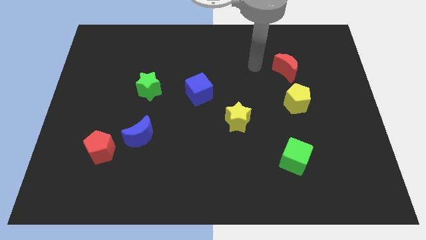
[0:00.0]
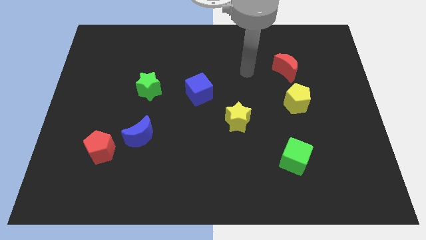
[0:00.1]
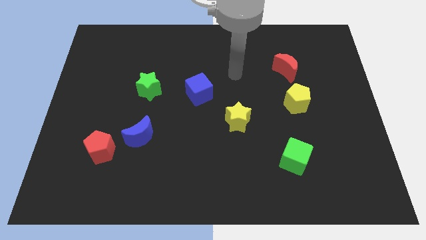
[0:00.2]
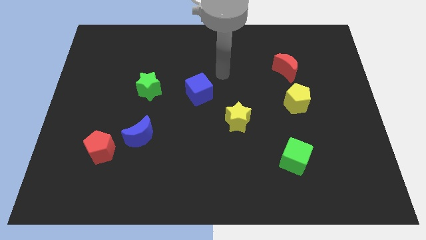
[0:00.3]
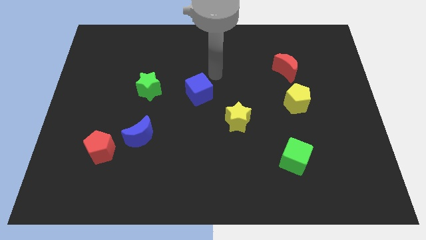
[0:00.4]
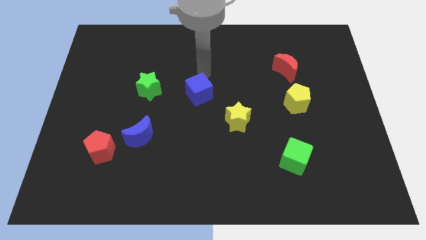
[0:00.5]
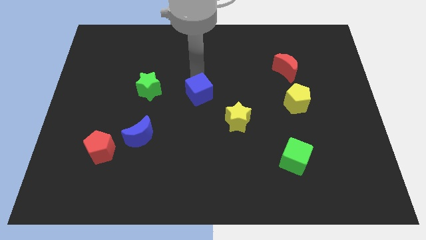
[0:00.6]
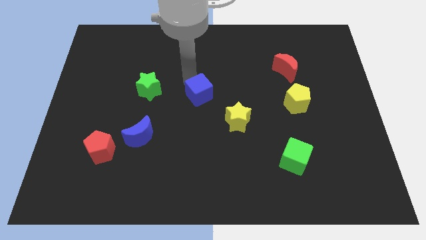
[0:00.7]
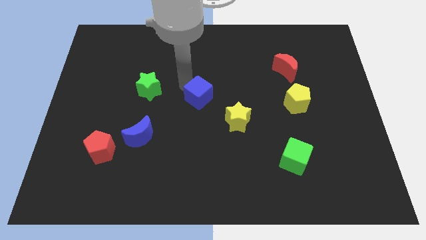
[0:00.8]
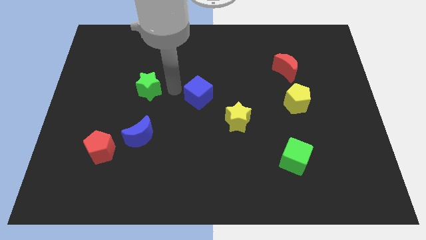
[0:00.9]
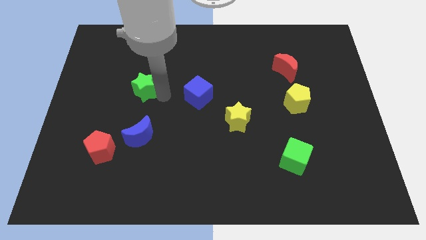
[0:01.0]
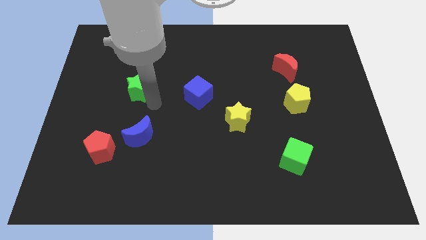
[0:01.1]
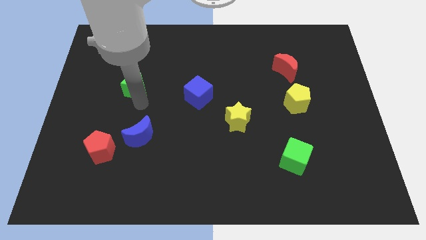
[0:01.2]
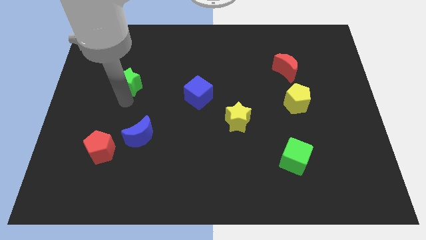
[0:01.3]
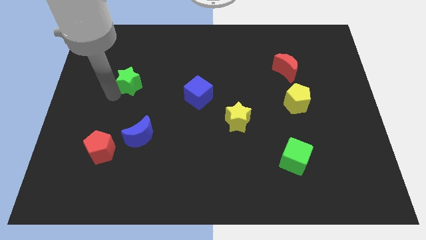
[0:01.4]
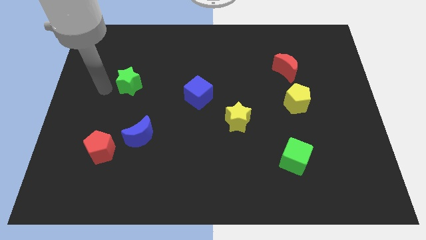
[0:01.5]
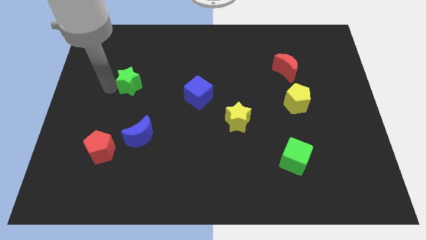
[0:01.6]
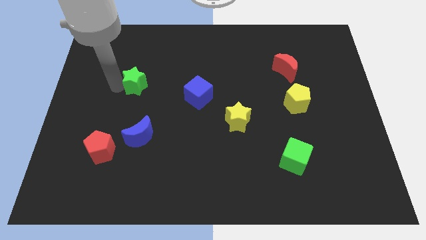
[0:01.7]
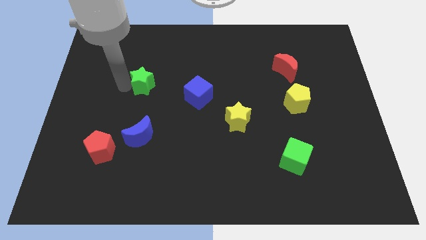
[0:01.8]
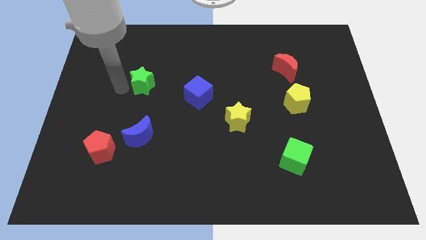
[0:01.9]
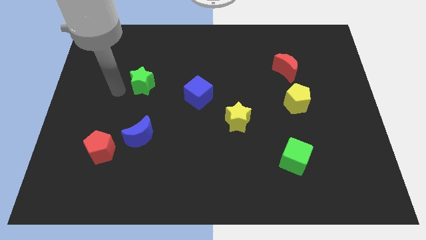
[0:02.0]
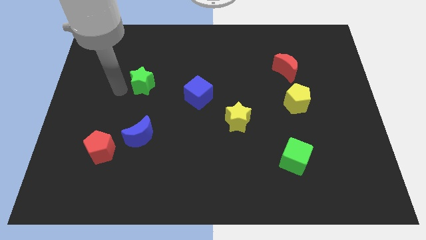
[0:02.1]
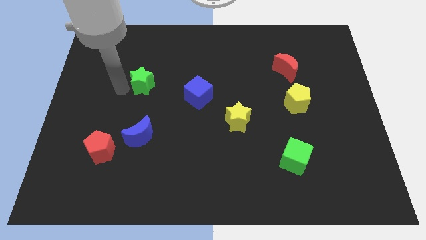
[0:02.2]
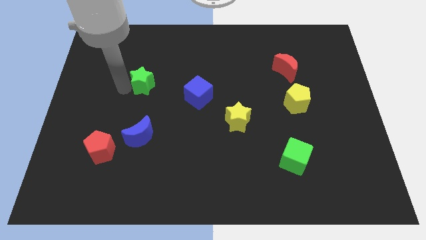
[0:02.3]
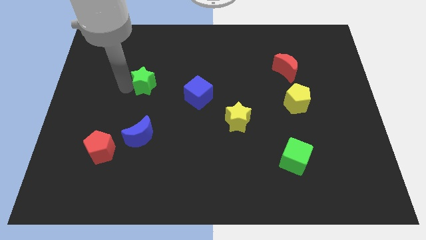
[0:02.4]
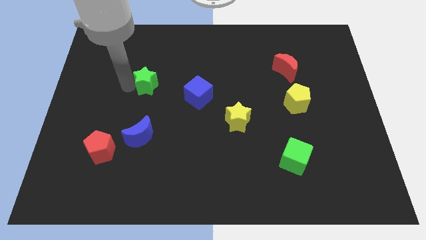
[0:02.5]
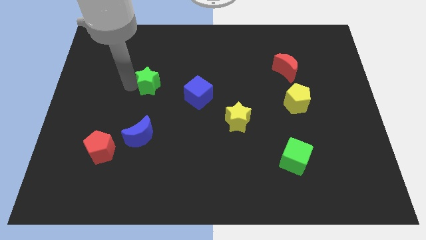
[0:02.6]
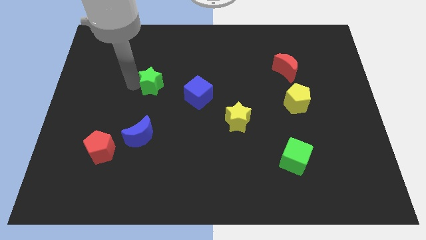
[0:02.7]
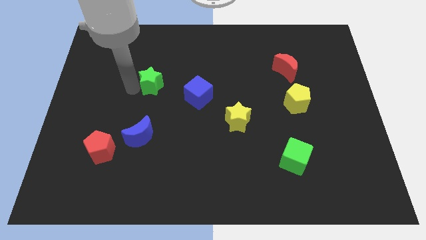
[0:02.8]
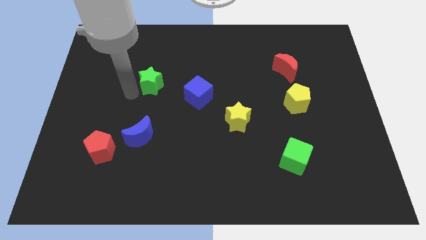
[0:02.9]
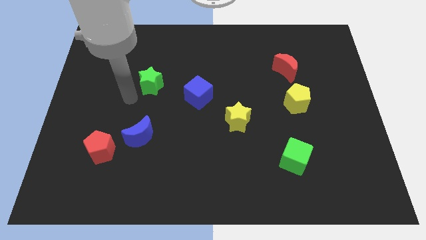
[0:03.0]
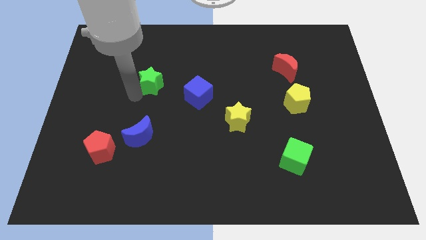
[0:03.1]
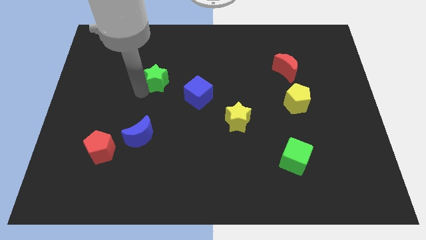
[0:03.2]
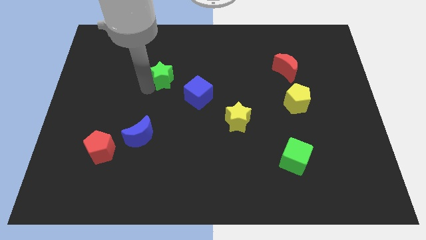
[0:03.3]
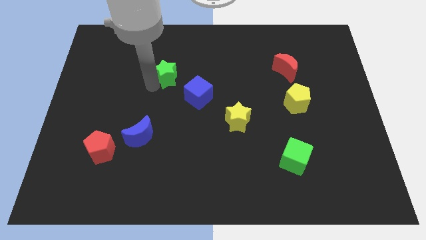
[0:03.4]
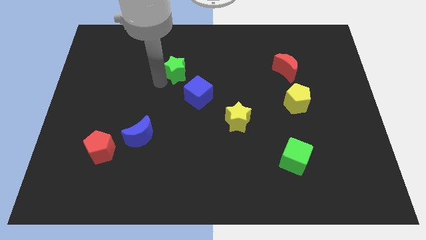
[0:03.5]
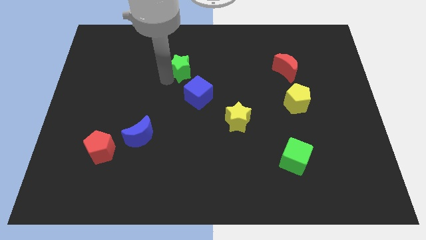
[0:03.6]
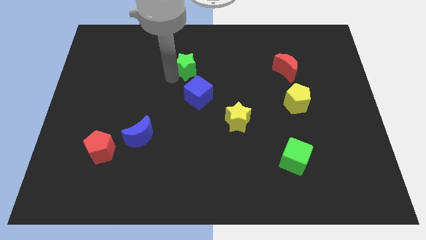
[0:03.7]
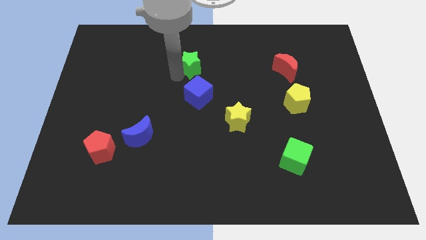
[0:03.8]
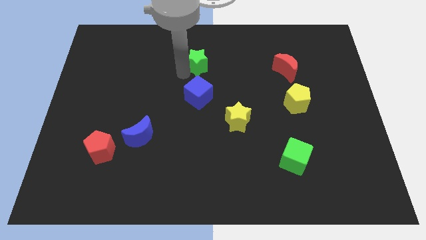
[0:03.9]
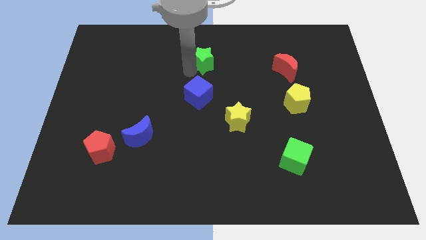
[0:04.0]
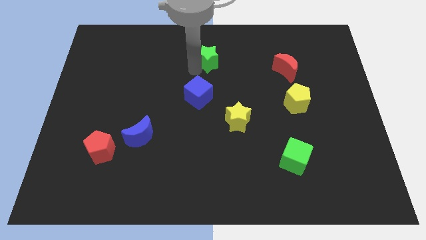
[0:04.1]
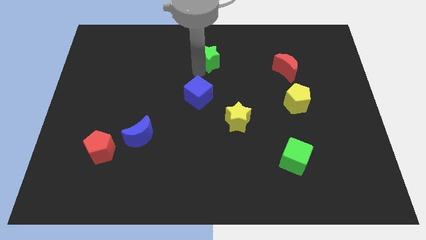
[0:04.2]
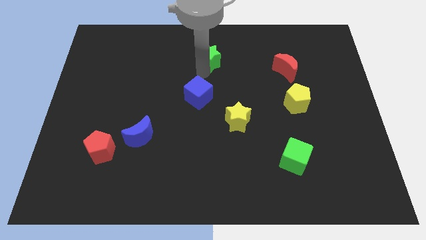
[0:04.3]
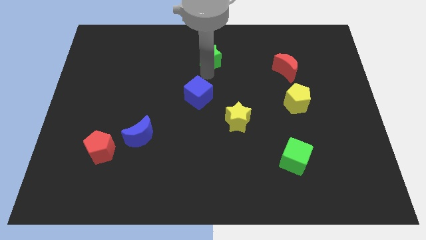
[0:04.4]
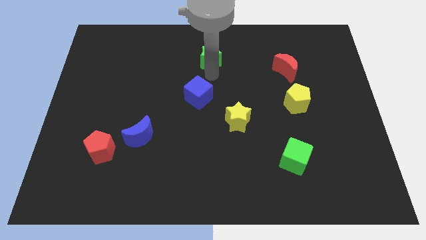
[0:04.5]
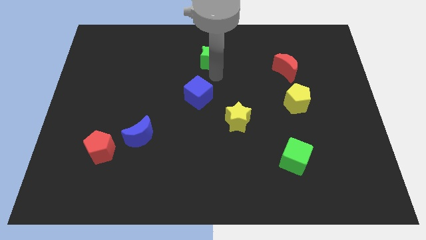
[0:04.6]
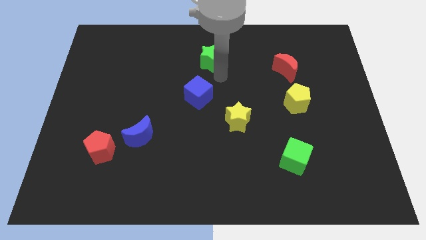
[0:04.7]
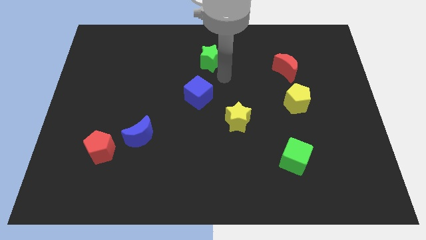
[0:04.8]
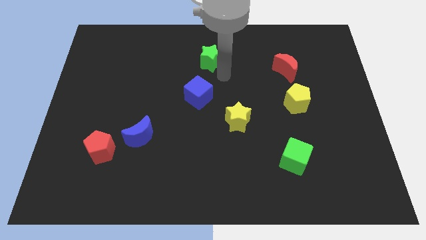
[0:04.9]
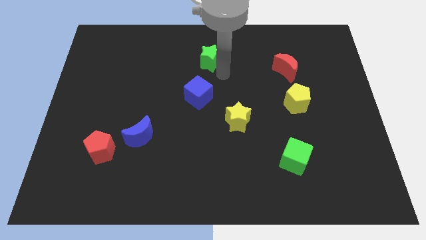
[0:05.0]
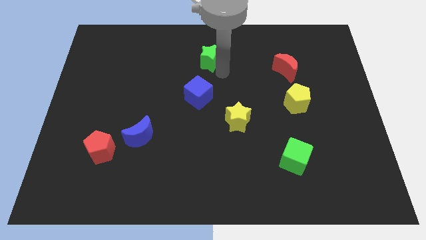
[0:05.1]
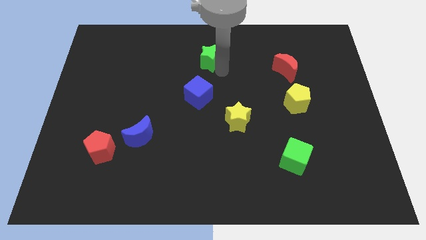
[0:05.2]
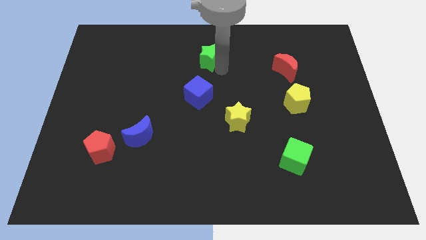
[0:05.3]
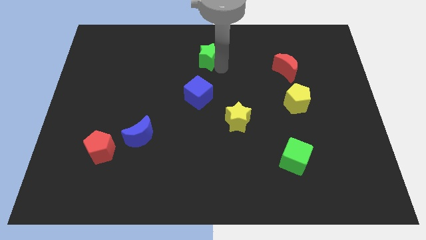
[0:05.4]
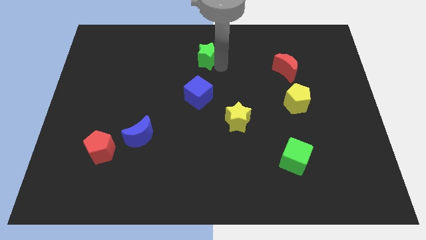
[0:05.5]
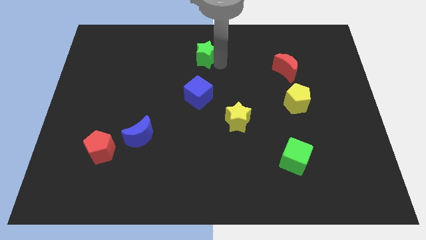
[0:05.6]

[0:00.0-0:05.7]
put the green star to the top

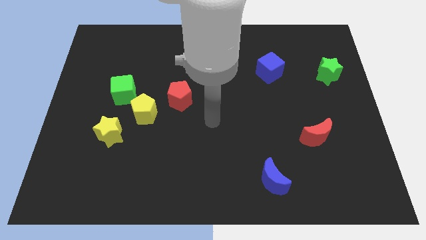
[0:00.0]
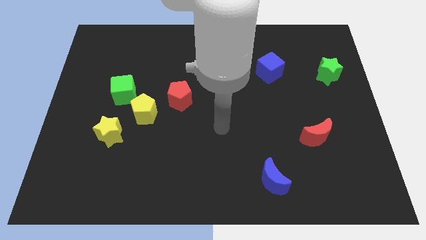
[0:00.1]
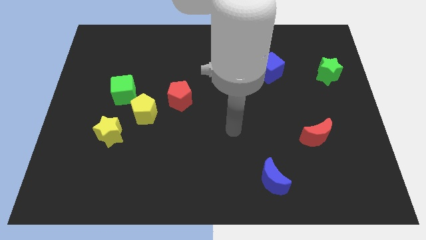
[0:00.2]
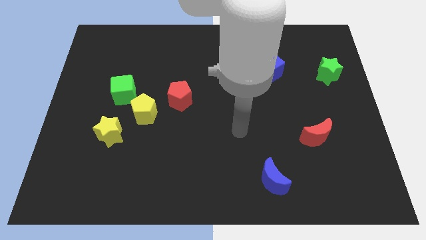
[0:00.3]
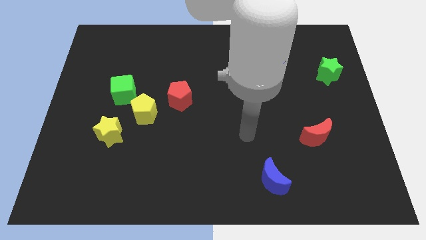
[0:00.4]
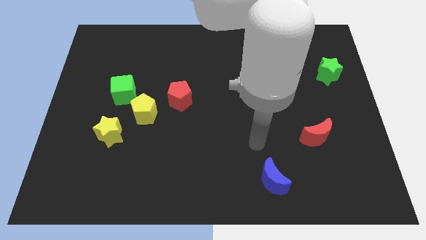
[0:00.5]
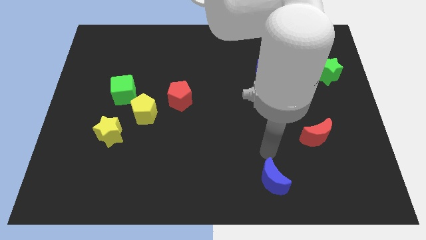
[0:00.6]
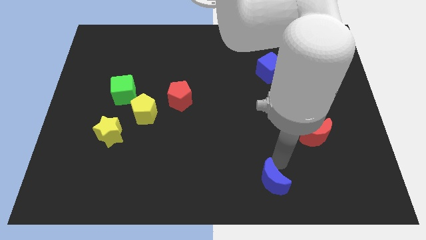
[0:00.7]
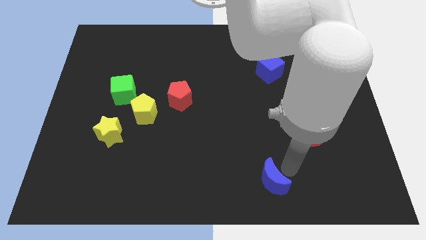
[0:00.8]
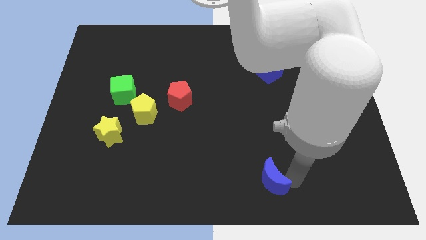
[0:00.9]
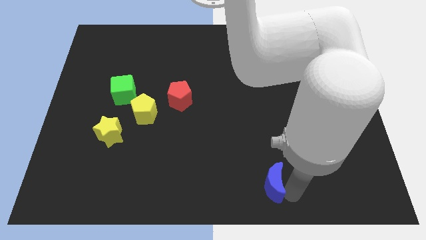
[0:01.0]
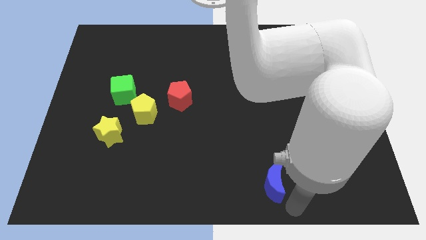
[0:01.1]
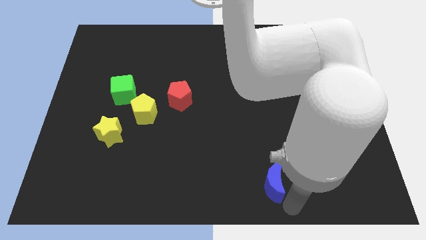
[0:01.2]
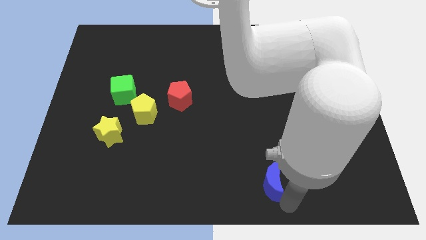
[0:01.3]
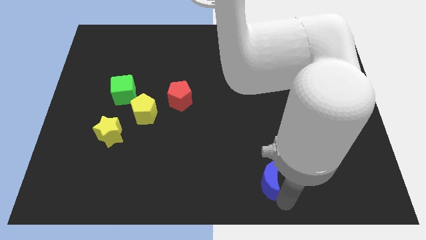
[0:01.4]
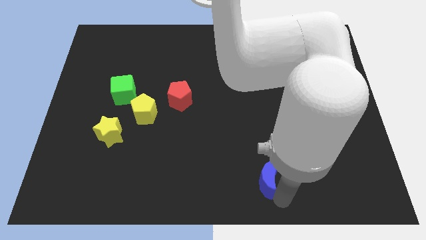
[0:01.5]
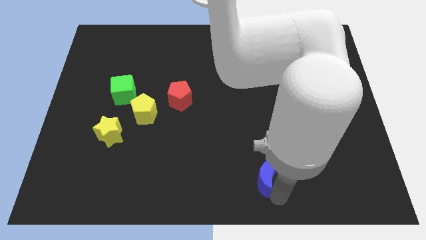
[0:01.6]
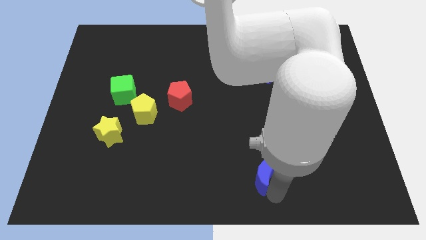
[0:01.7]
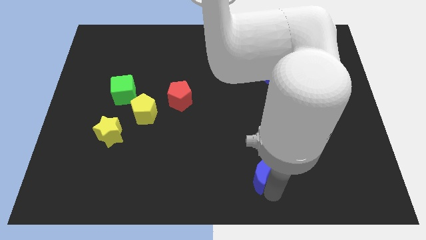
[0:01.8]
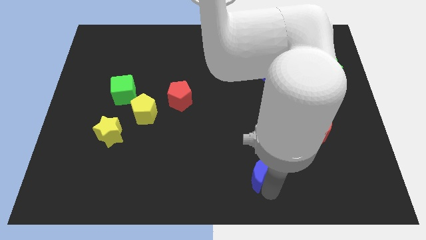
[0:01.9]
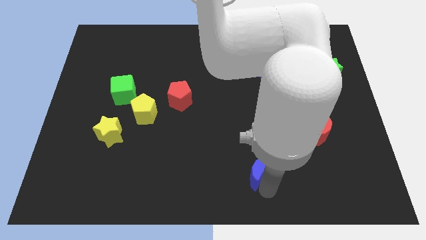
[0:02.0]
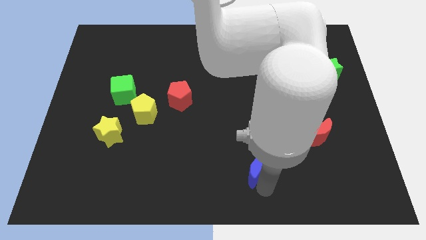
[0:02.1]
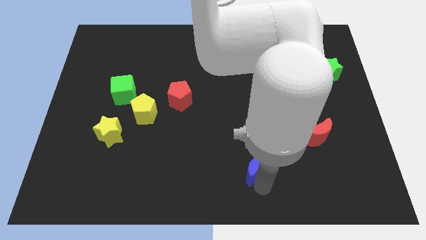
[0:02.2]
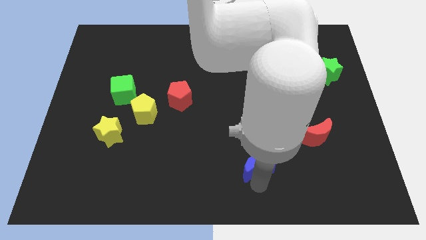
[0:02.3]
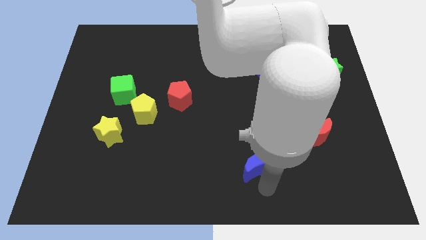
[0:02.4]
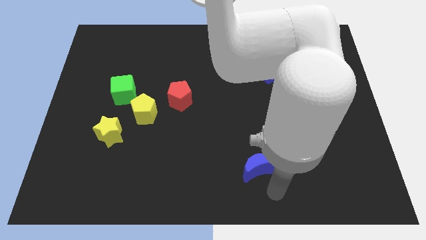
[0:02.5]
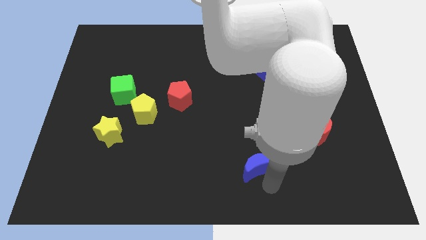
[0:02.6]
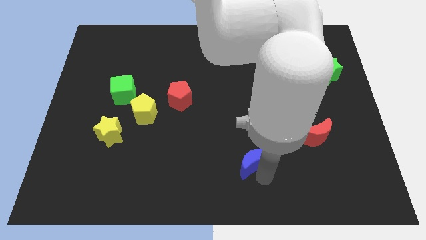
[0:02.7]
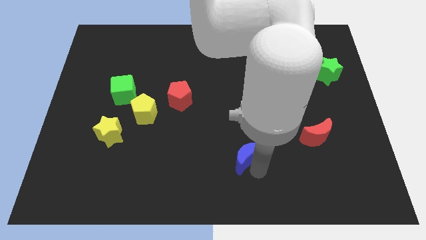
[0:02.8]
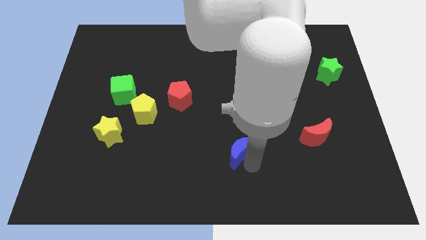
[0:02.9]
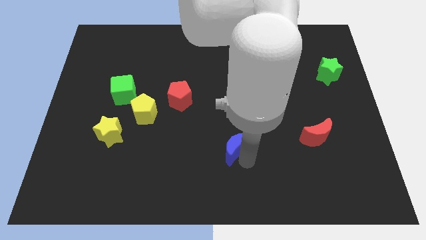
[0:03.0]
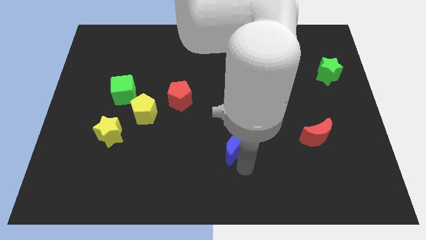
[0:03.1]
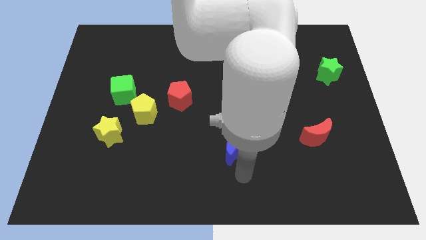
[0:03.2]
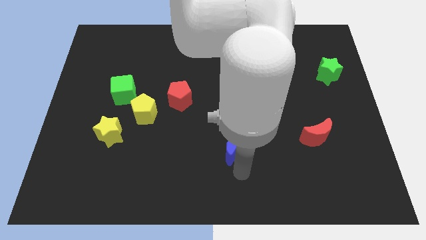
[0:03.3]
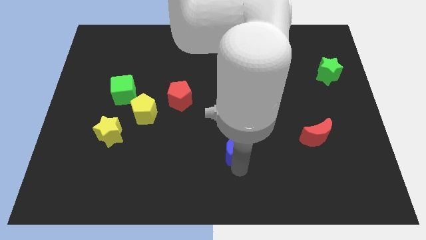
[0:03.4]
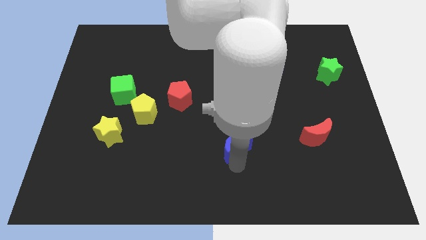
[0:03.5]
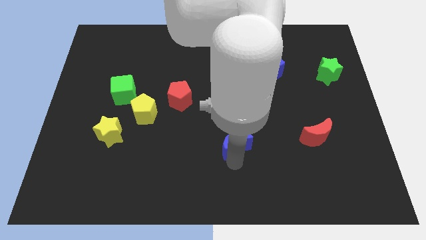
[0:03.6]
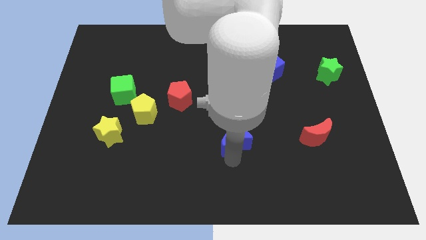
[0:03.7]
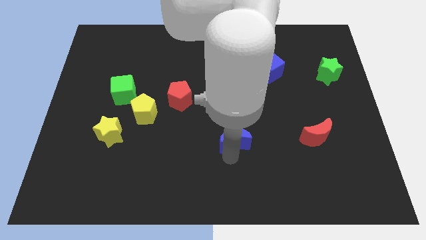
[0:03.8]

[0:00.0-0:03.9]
move the blue moon to the middle of the board
